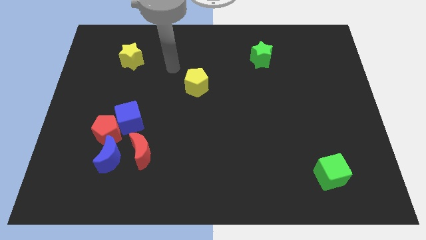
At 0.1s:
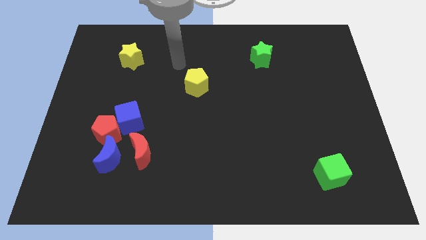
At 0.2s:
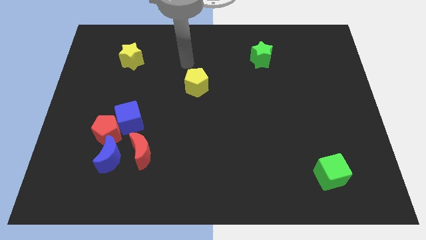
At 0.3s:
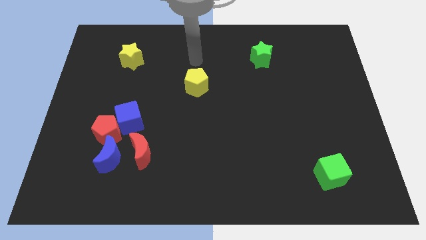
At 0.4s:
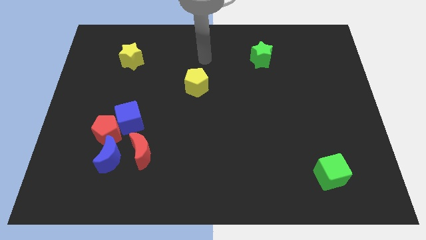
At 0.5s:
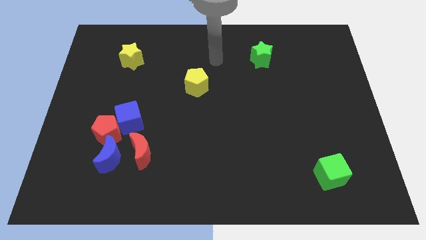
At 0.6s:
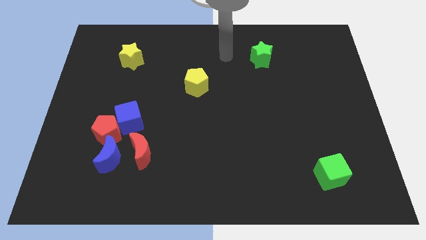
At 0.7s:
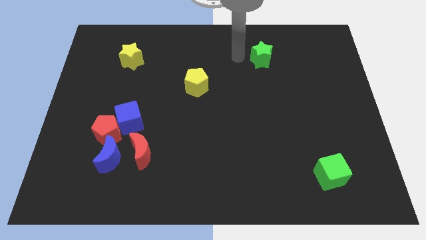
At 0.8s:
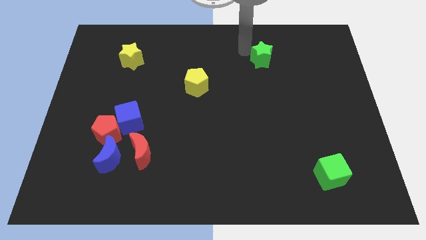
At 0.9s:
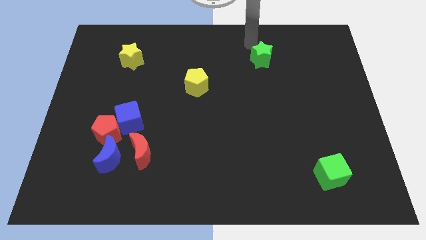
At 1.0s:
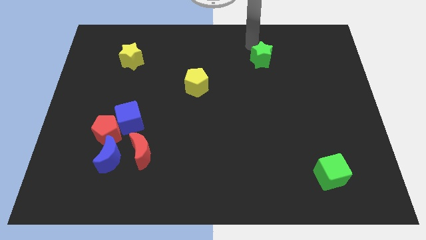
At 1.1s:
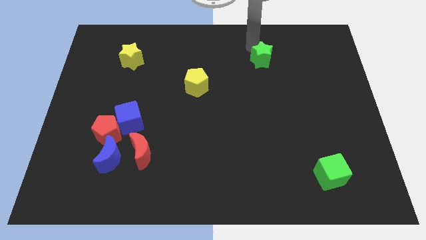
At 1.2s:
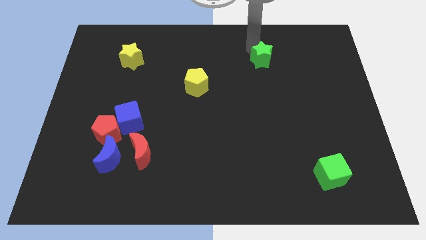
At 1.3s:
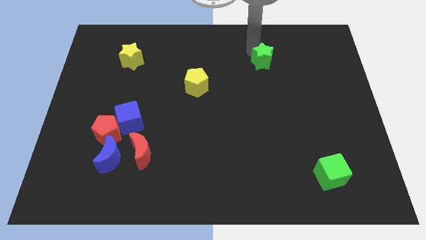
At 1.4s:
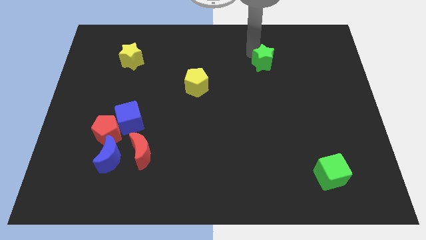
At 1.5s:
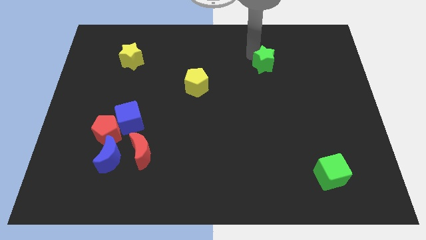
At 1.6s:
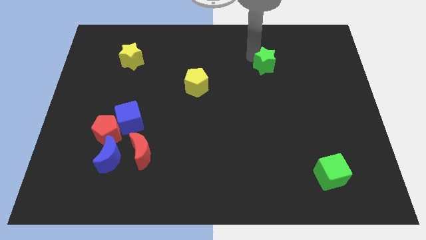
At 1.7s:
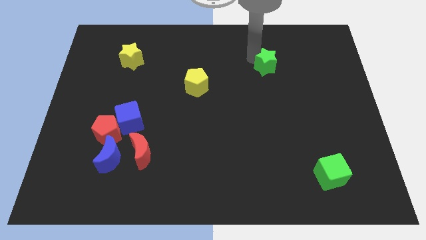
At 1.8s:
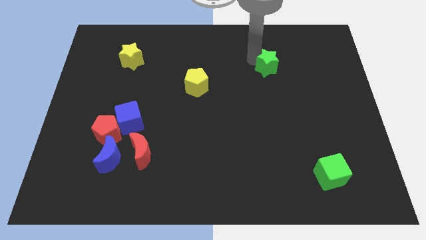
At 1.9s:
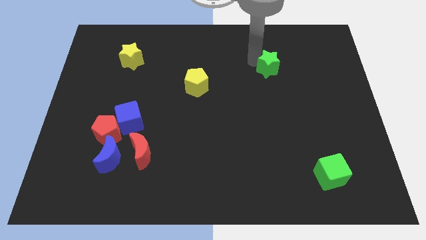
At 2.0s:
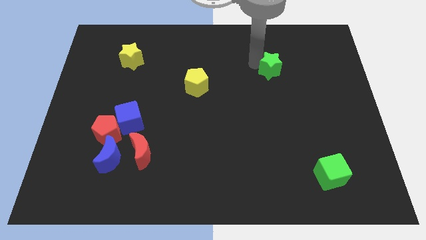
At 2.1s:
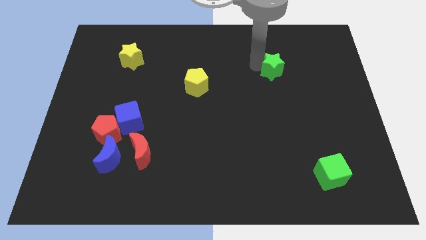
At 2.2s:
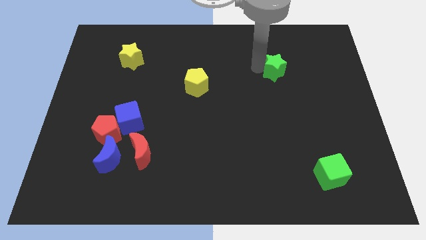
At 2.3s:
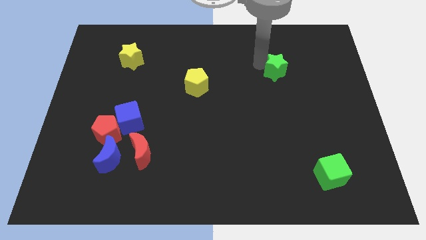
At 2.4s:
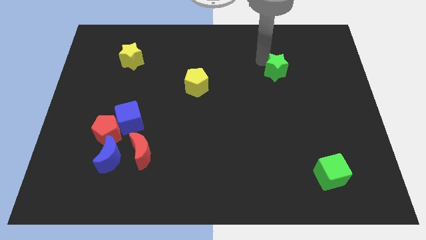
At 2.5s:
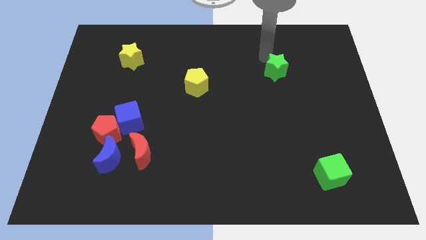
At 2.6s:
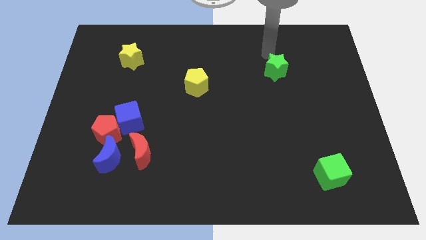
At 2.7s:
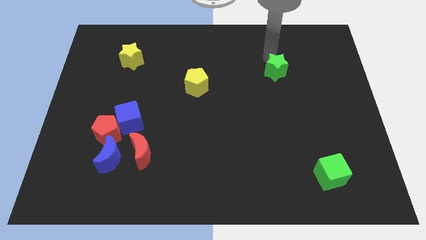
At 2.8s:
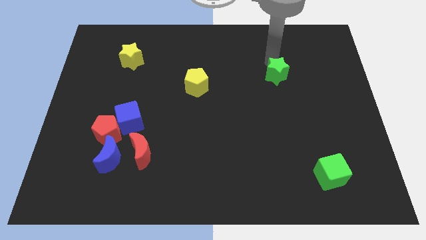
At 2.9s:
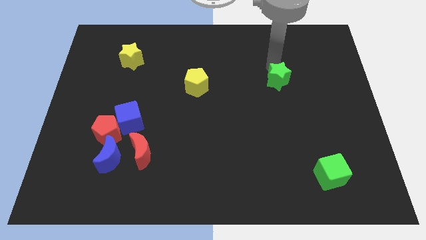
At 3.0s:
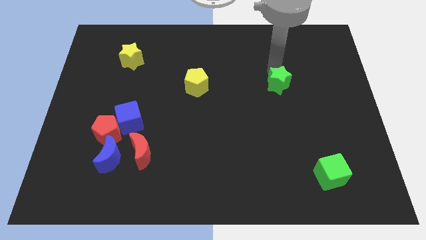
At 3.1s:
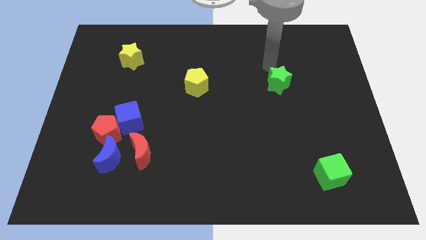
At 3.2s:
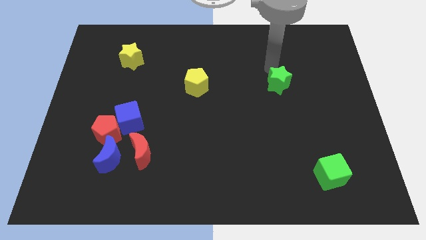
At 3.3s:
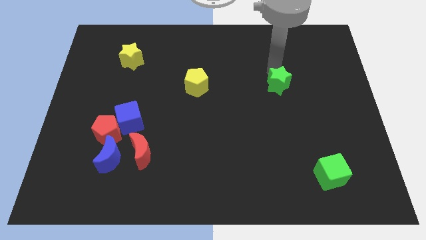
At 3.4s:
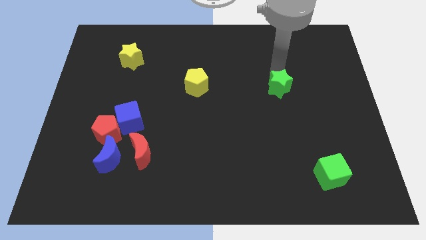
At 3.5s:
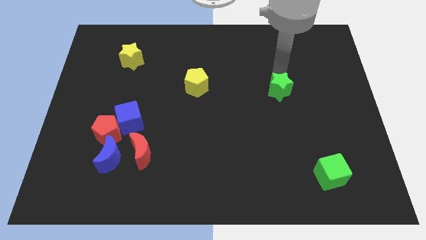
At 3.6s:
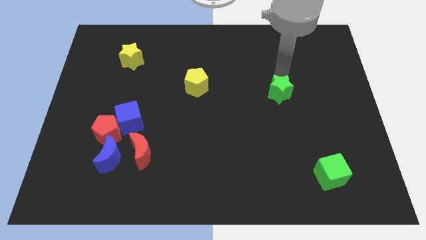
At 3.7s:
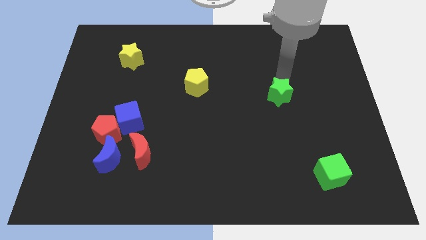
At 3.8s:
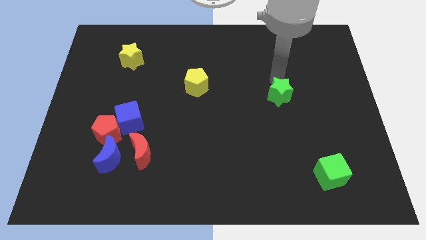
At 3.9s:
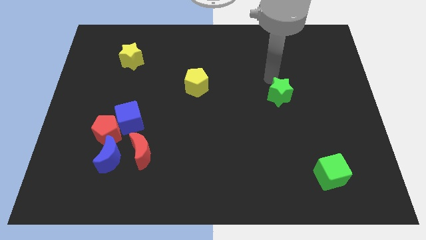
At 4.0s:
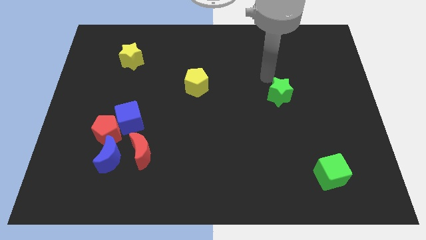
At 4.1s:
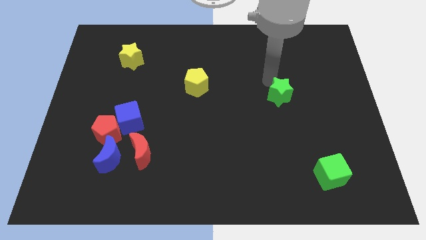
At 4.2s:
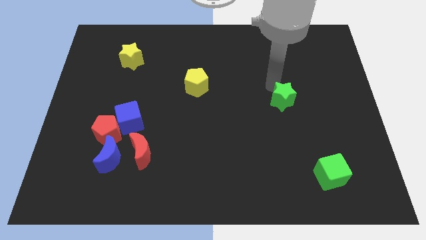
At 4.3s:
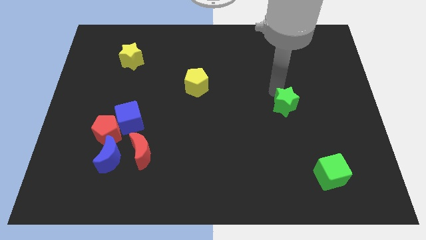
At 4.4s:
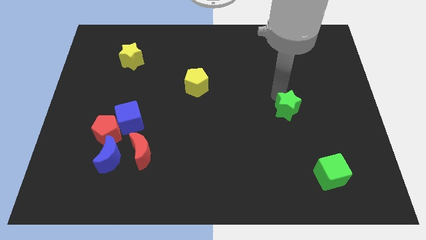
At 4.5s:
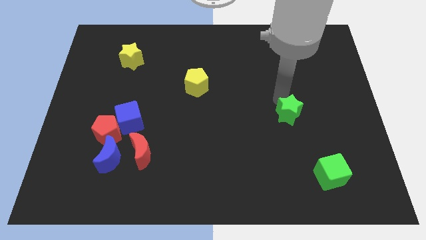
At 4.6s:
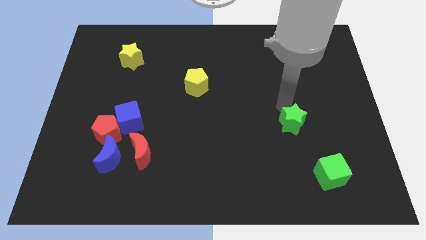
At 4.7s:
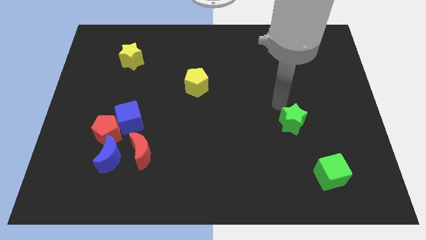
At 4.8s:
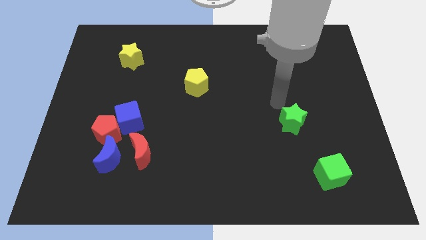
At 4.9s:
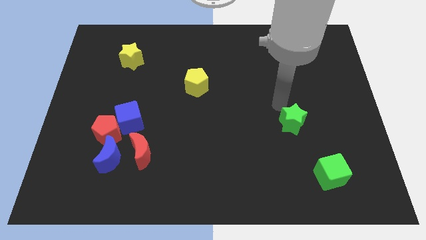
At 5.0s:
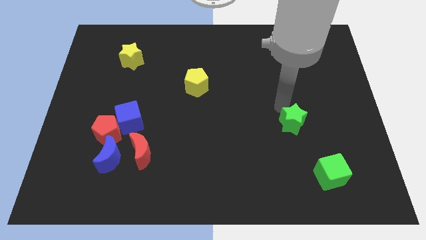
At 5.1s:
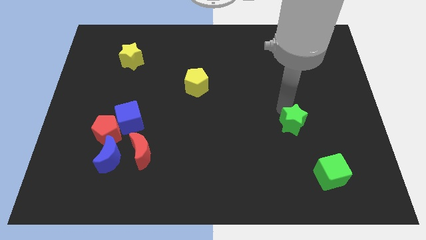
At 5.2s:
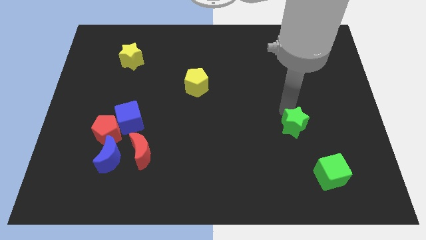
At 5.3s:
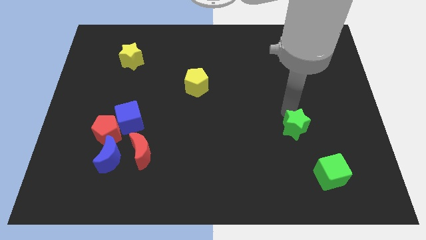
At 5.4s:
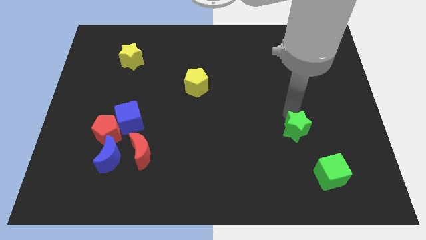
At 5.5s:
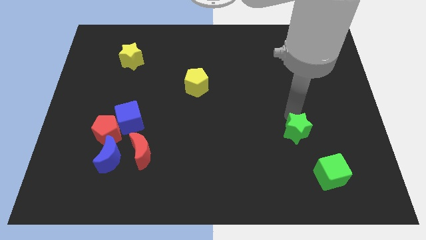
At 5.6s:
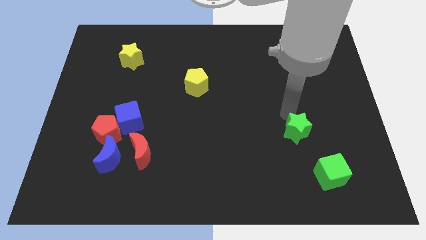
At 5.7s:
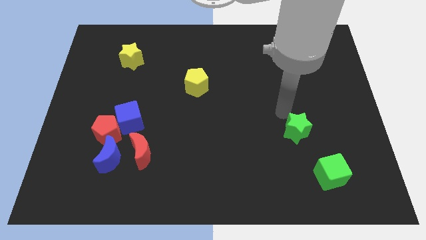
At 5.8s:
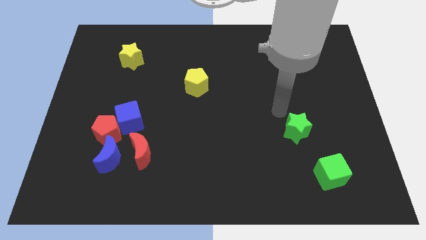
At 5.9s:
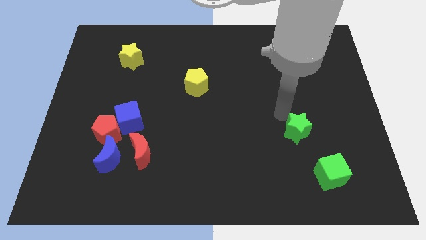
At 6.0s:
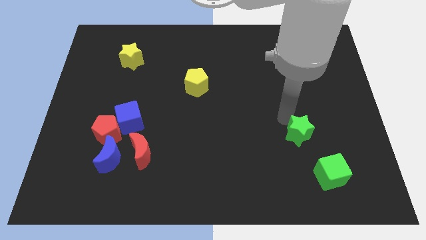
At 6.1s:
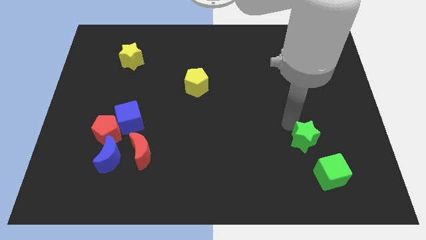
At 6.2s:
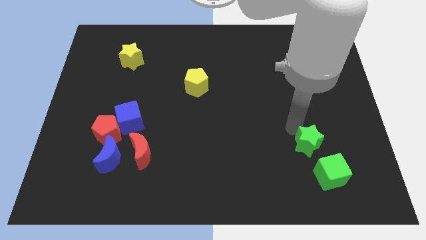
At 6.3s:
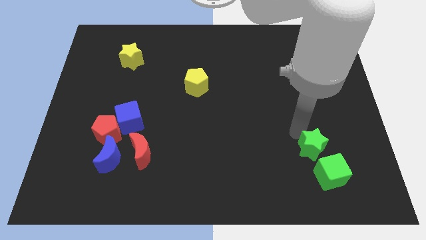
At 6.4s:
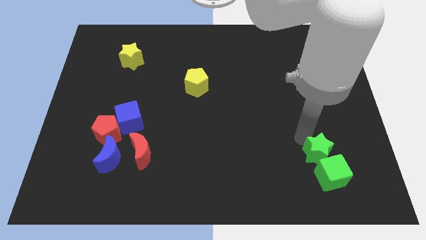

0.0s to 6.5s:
put the green star to the green cube

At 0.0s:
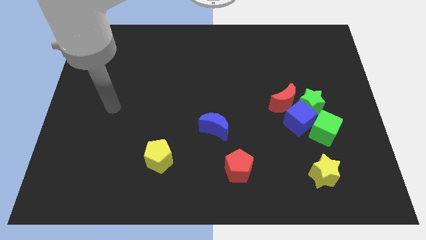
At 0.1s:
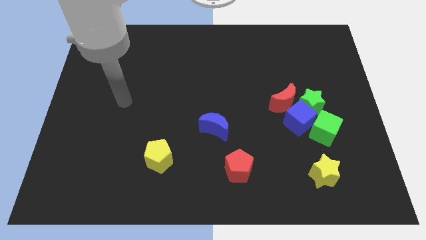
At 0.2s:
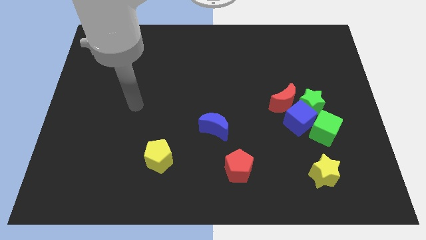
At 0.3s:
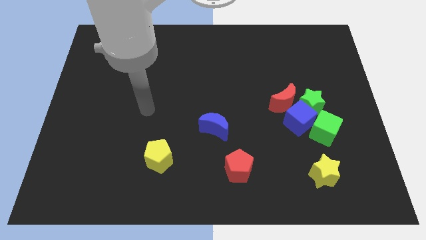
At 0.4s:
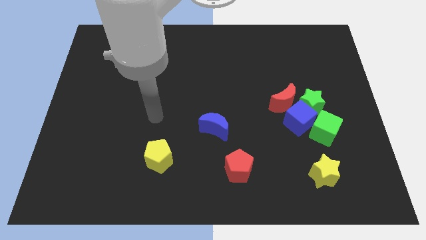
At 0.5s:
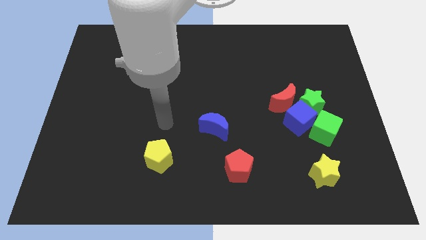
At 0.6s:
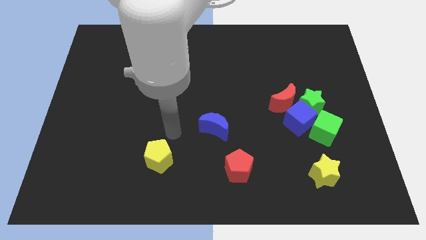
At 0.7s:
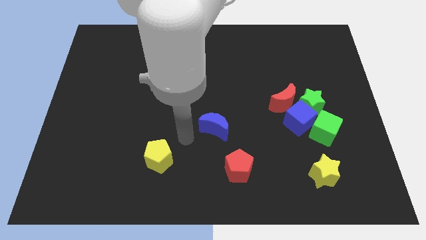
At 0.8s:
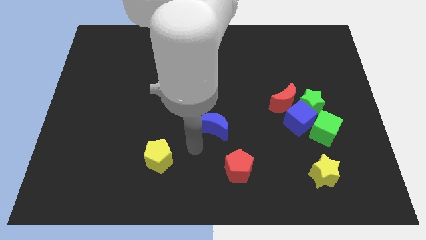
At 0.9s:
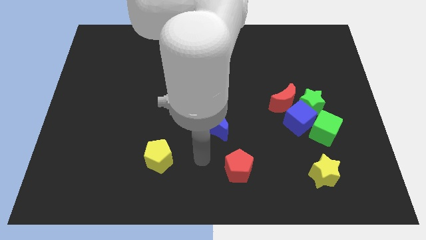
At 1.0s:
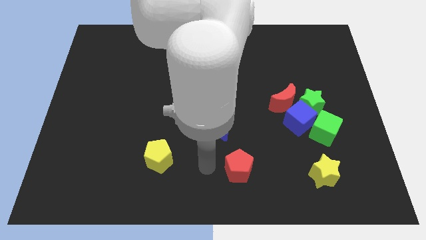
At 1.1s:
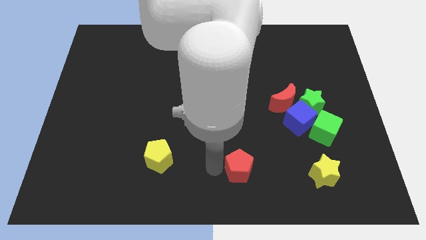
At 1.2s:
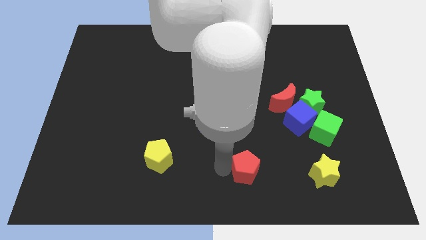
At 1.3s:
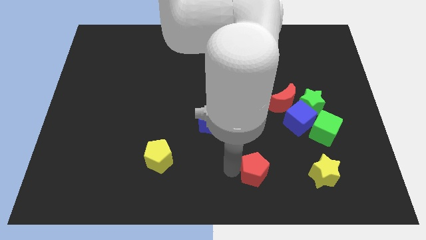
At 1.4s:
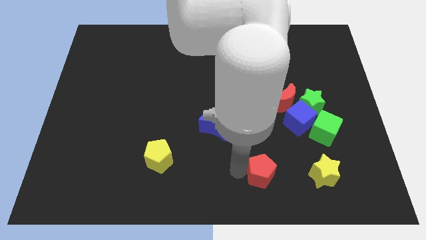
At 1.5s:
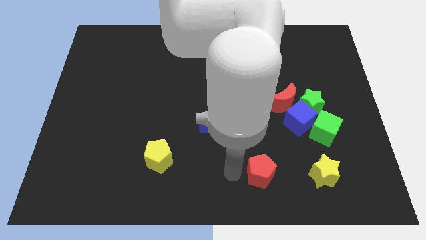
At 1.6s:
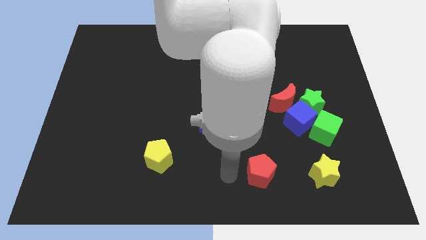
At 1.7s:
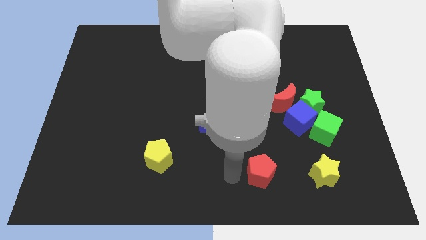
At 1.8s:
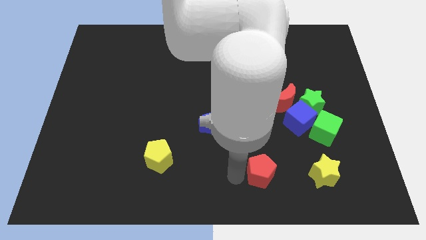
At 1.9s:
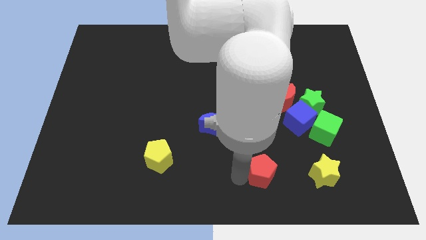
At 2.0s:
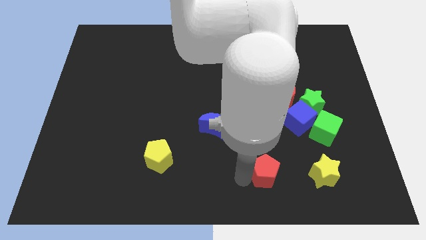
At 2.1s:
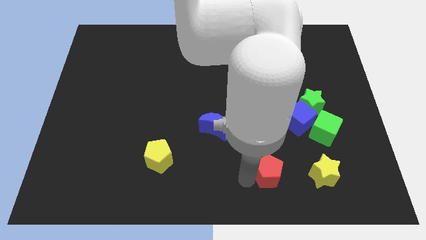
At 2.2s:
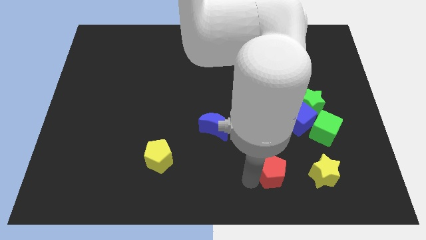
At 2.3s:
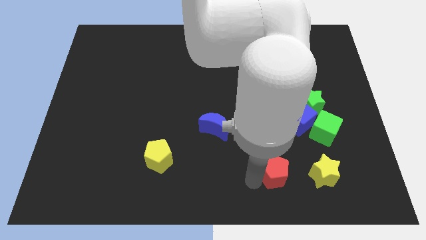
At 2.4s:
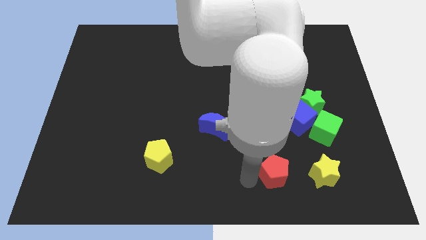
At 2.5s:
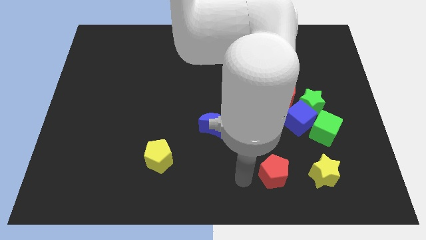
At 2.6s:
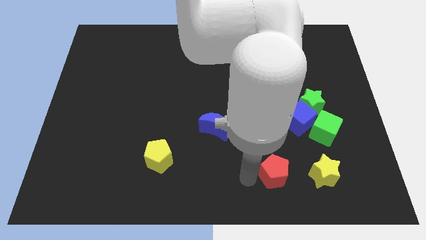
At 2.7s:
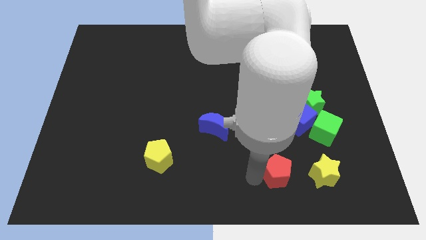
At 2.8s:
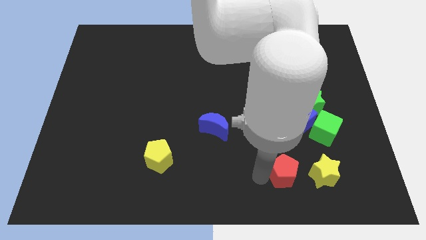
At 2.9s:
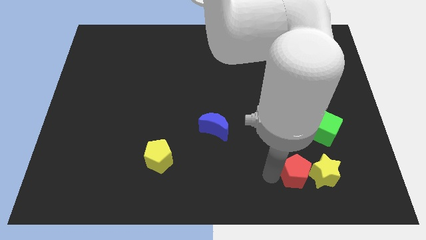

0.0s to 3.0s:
put the red pentagon next to the yellow star
